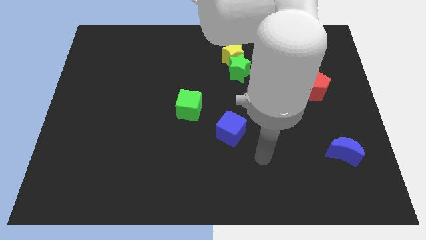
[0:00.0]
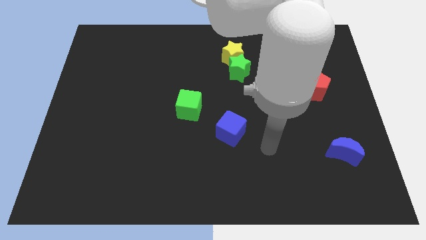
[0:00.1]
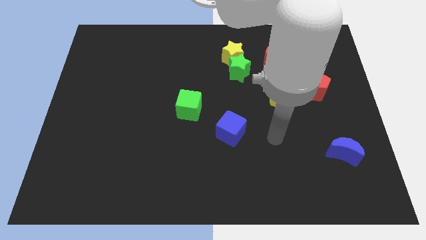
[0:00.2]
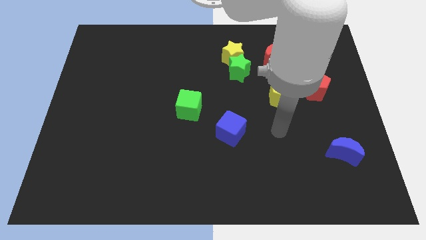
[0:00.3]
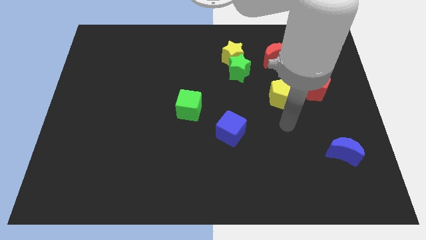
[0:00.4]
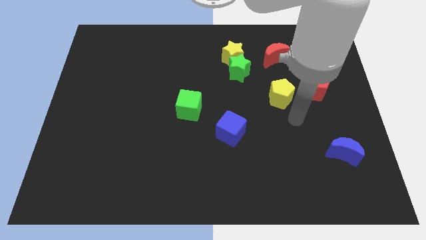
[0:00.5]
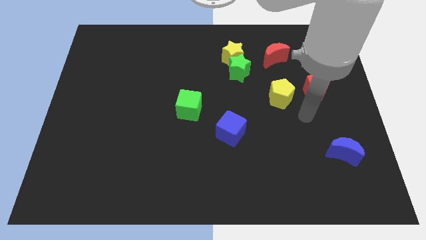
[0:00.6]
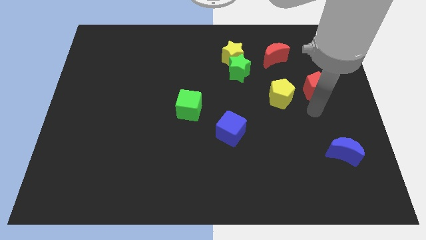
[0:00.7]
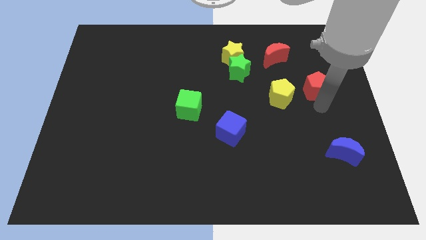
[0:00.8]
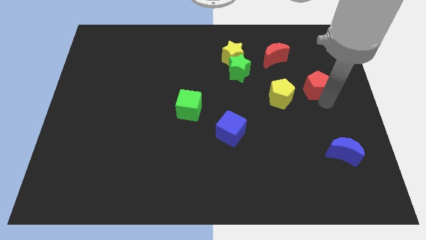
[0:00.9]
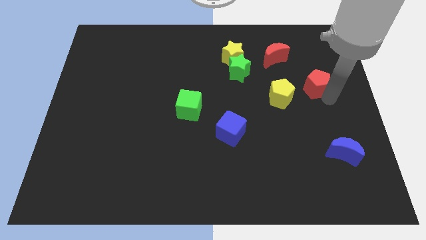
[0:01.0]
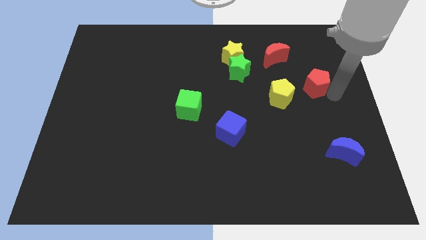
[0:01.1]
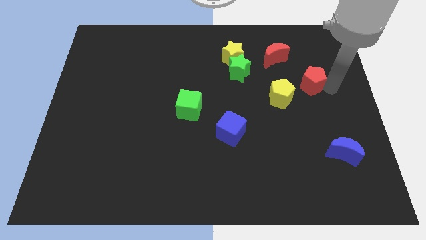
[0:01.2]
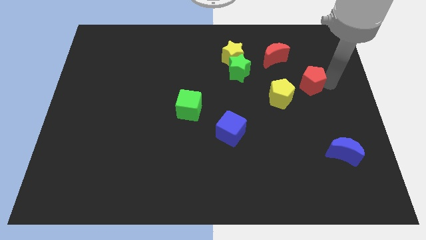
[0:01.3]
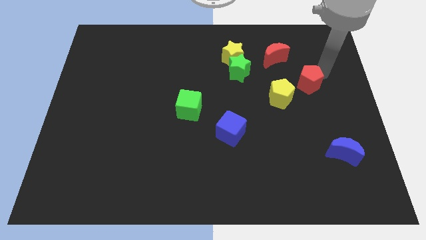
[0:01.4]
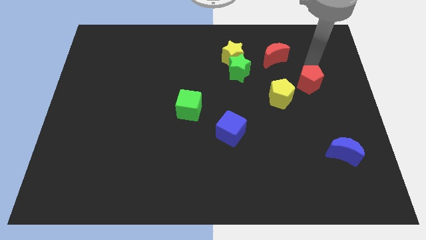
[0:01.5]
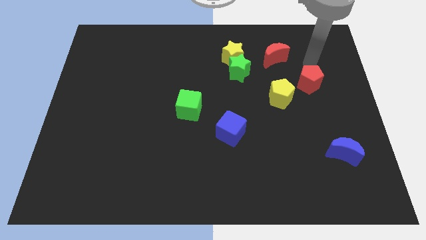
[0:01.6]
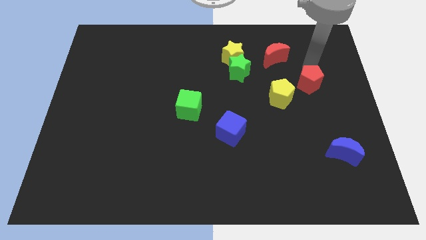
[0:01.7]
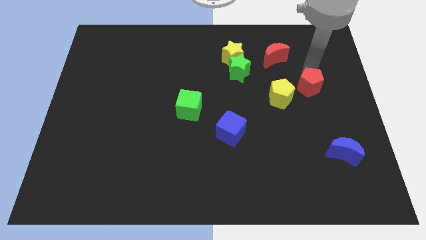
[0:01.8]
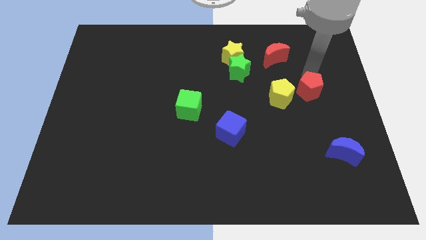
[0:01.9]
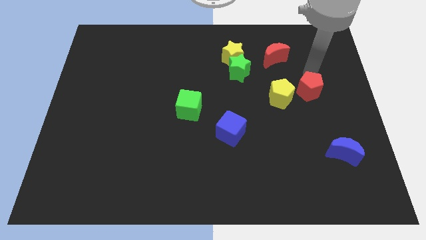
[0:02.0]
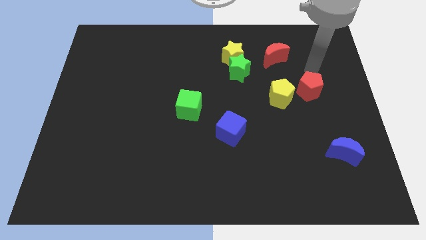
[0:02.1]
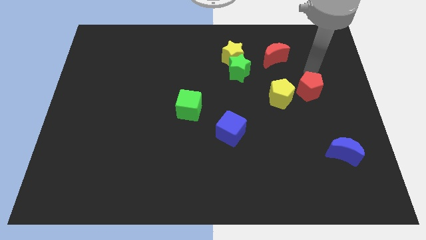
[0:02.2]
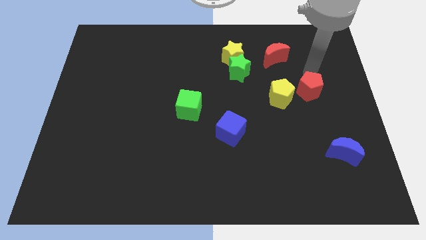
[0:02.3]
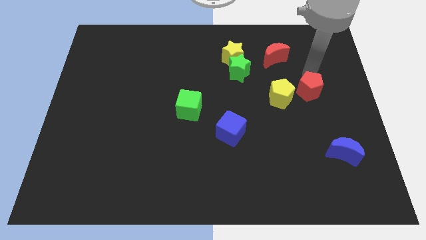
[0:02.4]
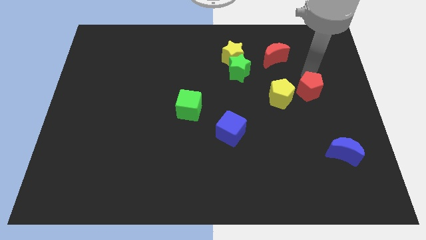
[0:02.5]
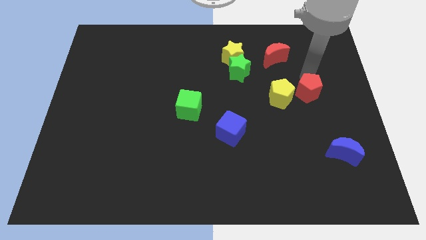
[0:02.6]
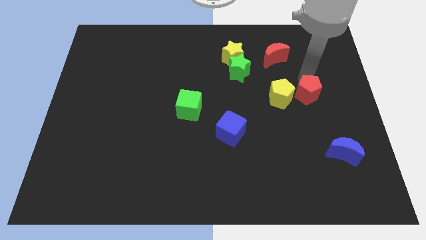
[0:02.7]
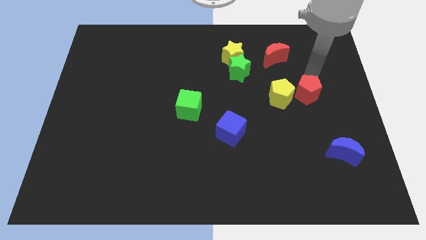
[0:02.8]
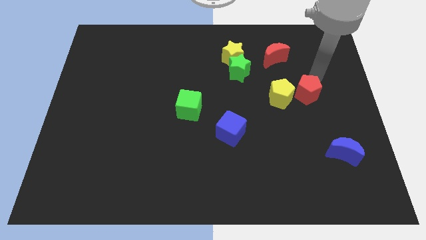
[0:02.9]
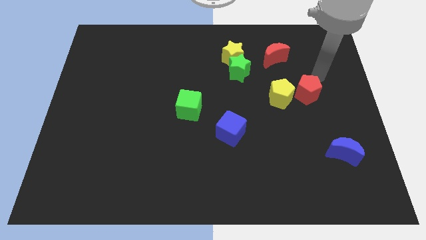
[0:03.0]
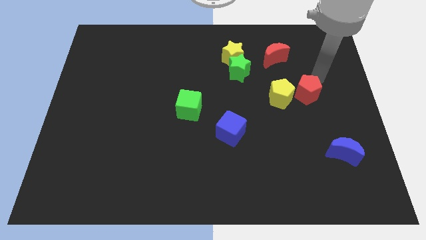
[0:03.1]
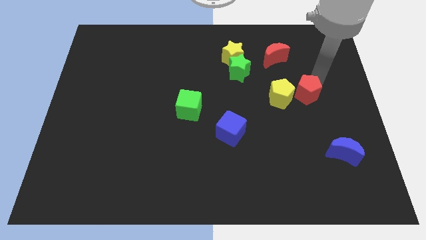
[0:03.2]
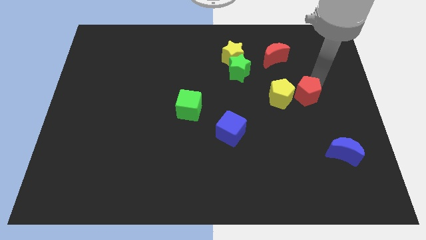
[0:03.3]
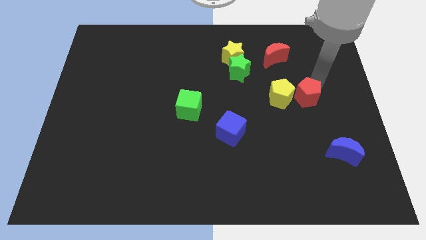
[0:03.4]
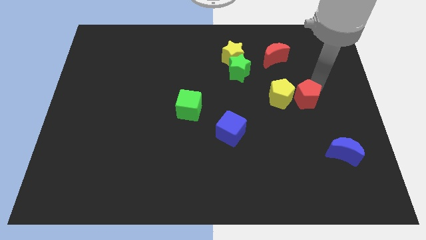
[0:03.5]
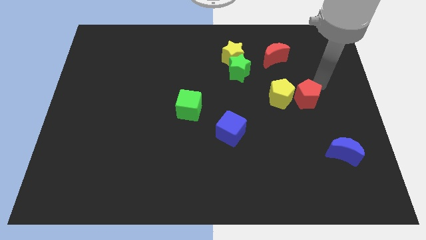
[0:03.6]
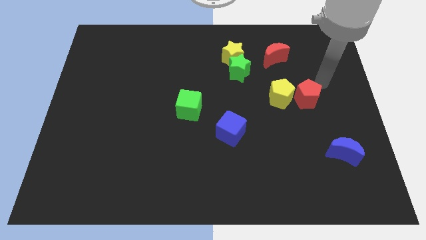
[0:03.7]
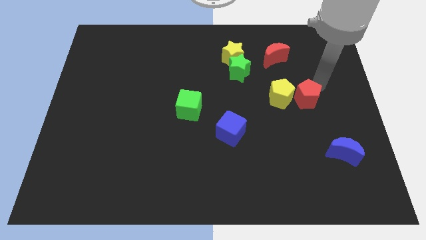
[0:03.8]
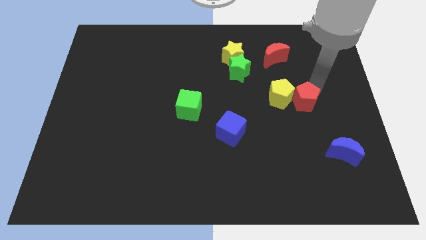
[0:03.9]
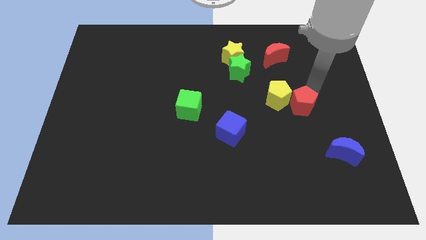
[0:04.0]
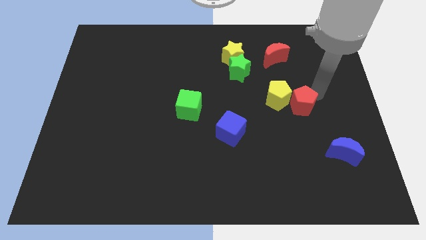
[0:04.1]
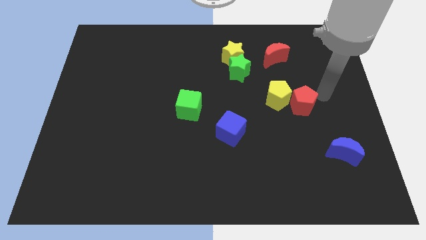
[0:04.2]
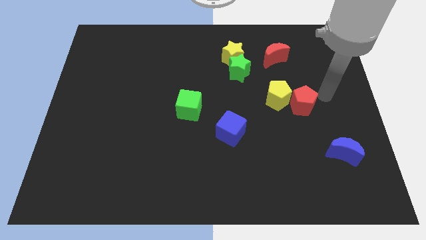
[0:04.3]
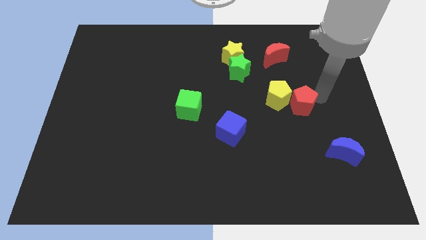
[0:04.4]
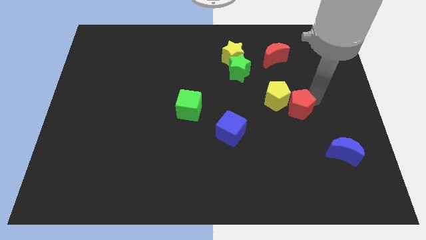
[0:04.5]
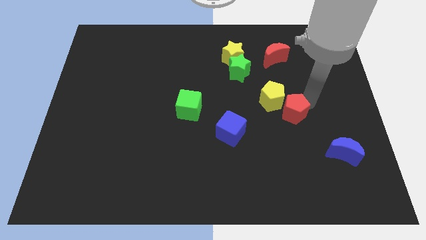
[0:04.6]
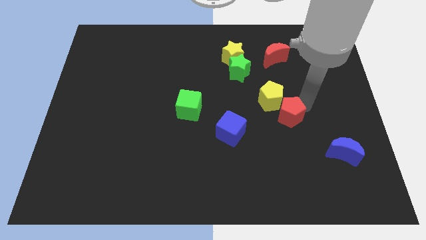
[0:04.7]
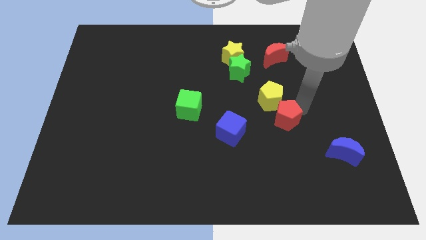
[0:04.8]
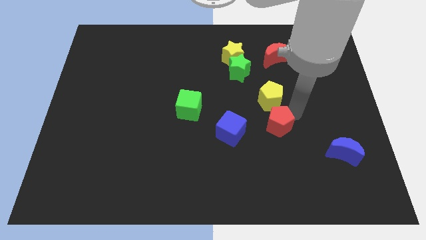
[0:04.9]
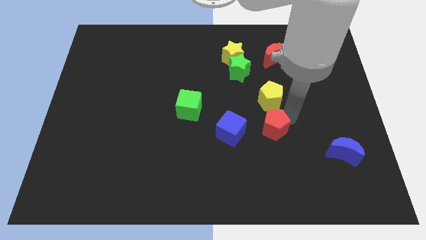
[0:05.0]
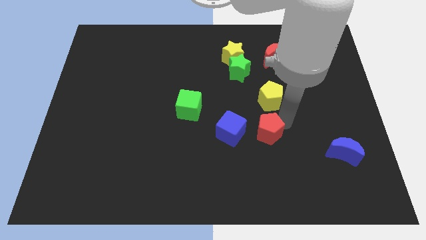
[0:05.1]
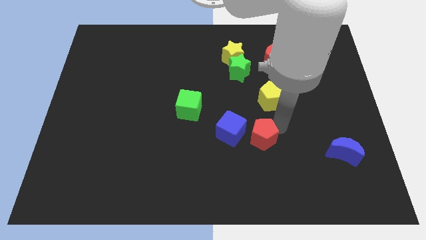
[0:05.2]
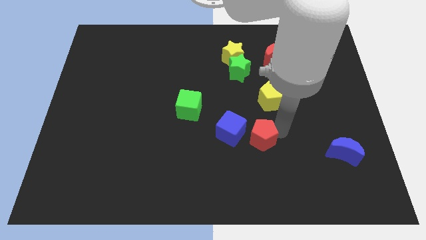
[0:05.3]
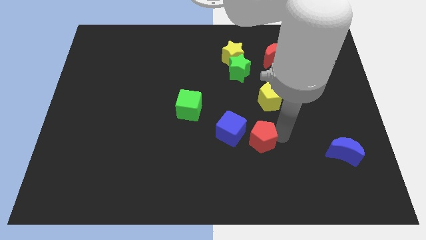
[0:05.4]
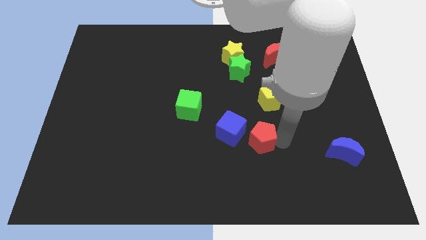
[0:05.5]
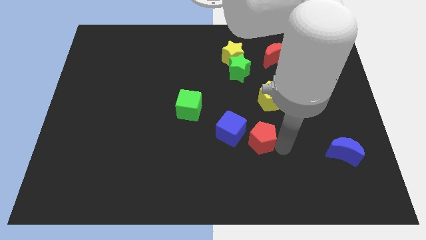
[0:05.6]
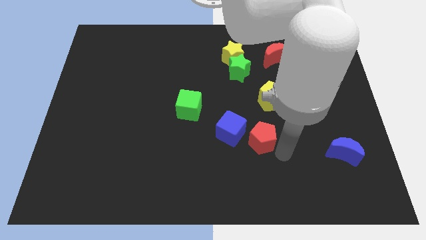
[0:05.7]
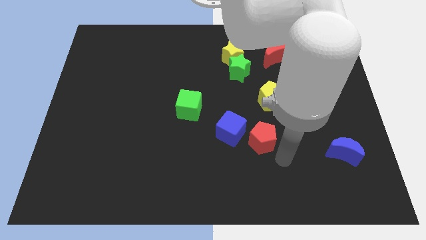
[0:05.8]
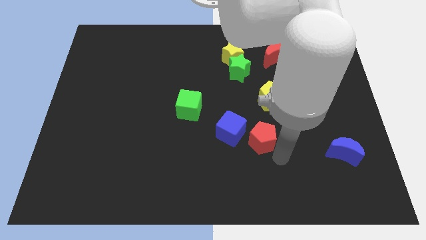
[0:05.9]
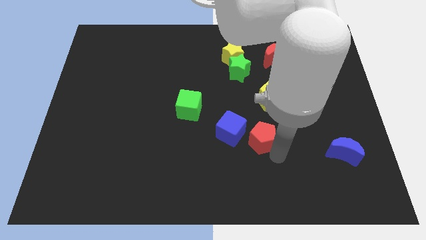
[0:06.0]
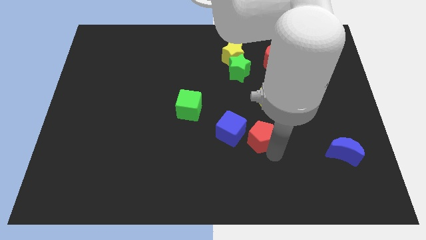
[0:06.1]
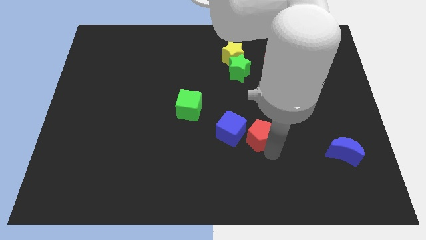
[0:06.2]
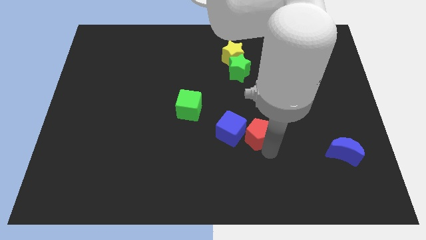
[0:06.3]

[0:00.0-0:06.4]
slide the red pentagon close to the blue cube

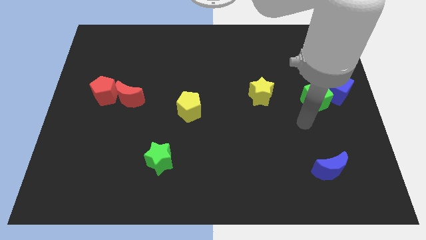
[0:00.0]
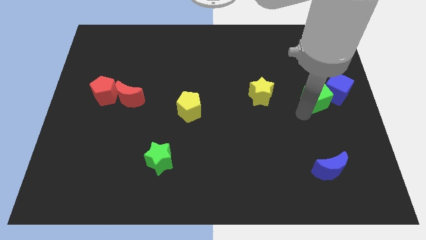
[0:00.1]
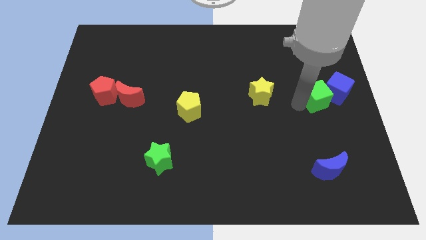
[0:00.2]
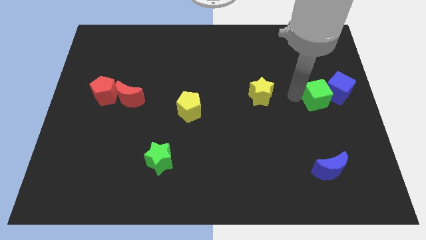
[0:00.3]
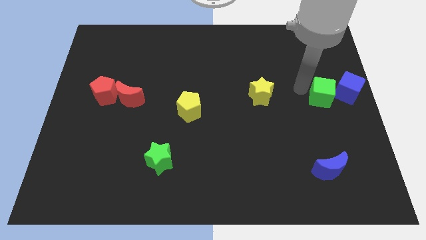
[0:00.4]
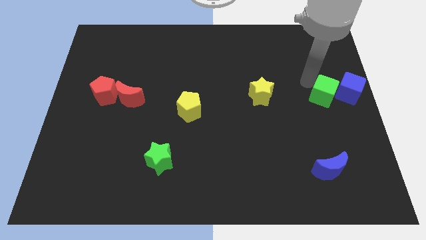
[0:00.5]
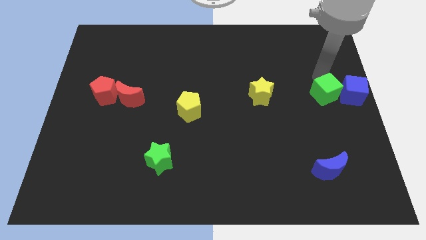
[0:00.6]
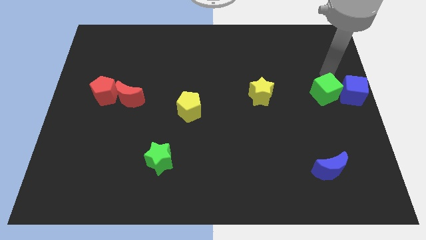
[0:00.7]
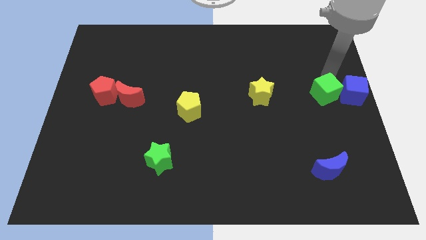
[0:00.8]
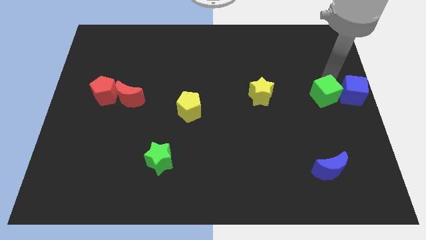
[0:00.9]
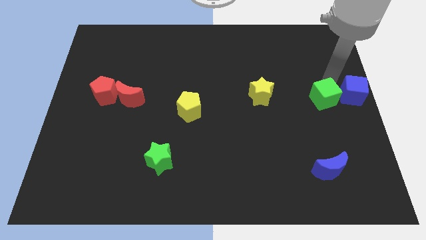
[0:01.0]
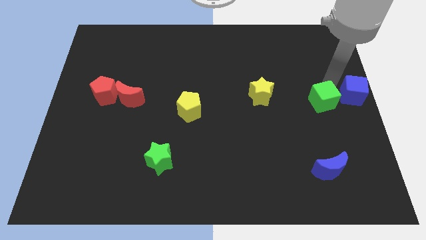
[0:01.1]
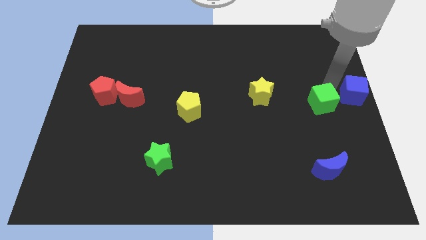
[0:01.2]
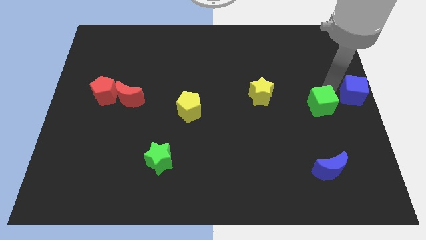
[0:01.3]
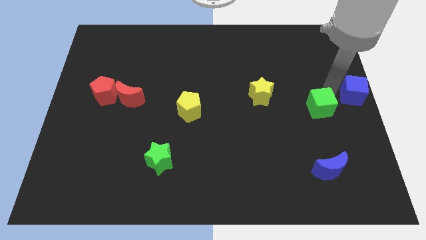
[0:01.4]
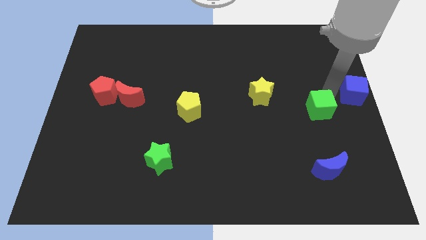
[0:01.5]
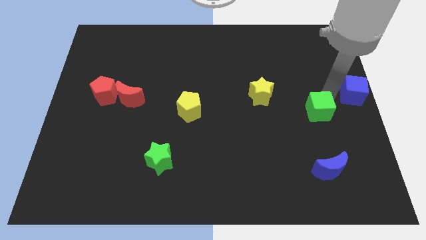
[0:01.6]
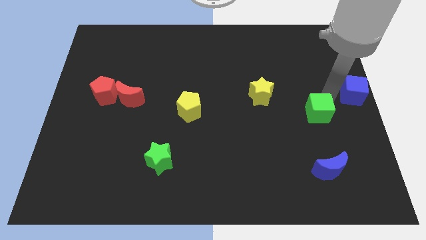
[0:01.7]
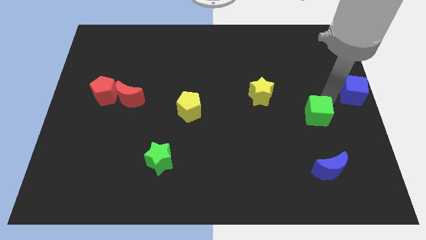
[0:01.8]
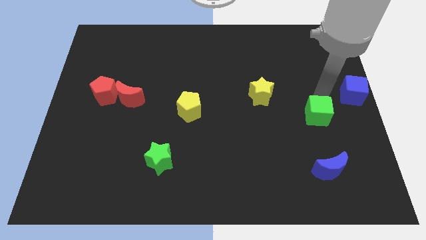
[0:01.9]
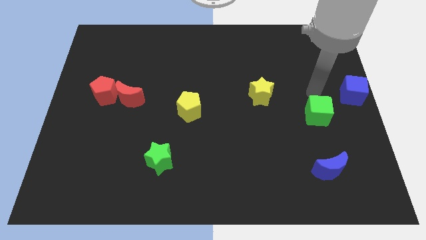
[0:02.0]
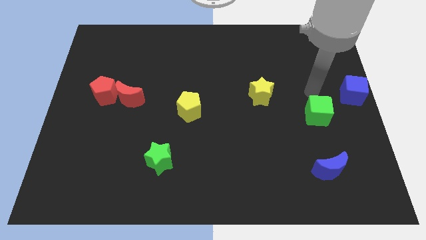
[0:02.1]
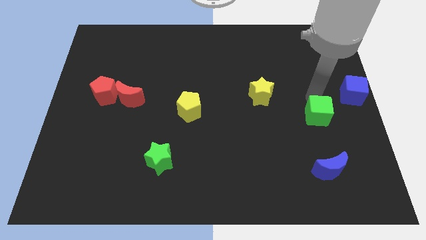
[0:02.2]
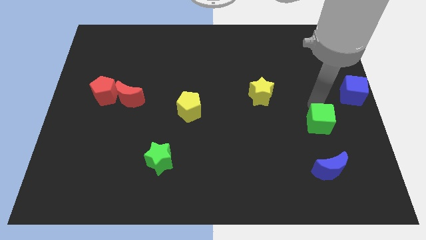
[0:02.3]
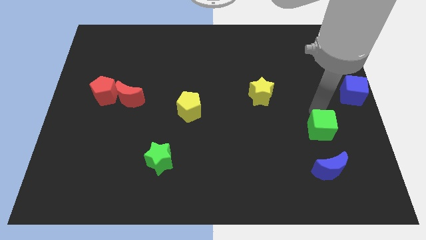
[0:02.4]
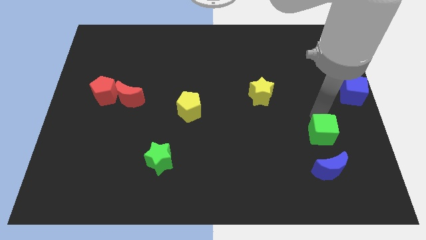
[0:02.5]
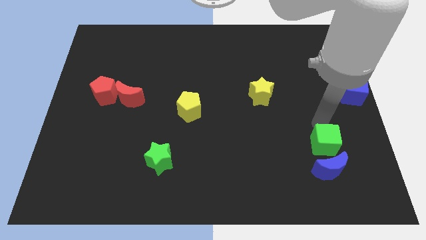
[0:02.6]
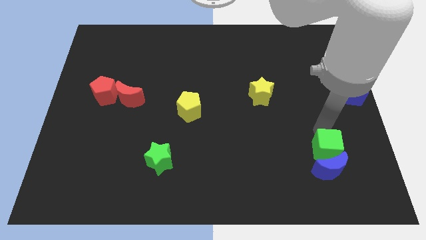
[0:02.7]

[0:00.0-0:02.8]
push the green cube close to the blue moon
